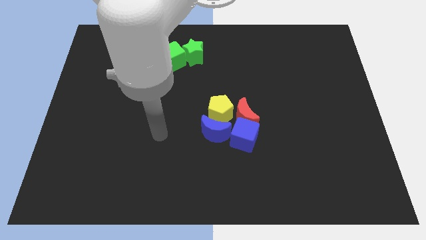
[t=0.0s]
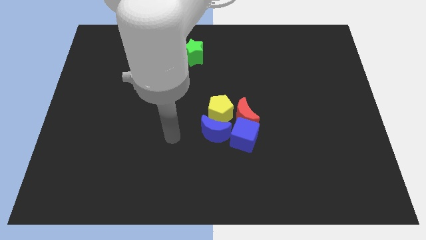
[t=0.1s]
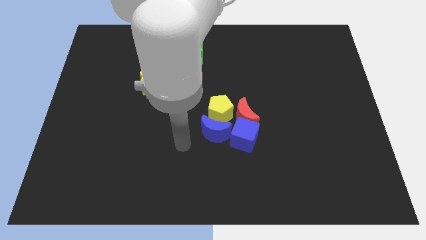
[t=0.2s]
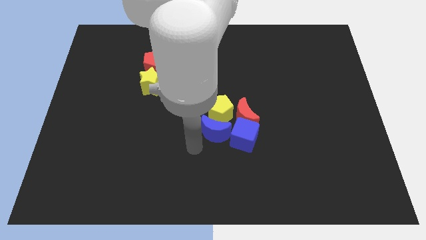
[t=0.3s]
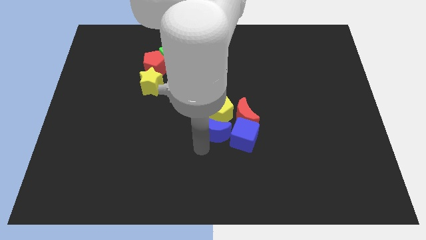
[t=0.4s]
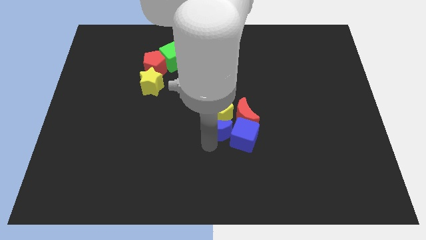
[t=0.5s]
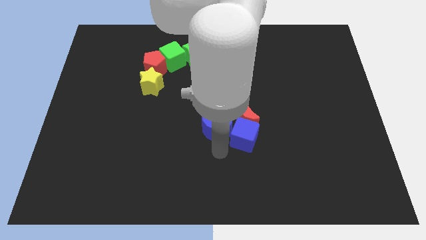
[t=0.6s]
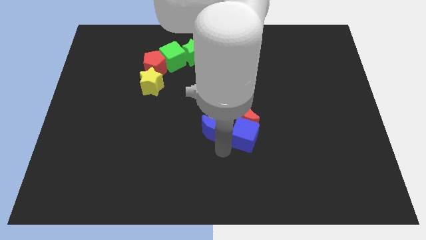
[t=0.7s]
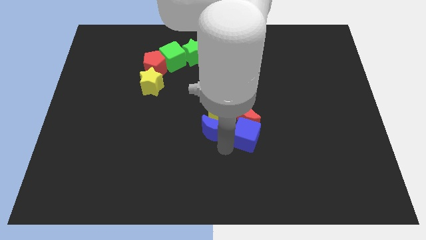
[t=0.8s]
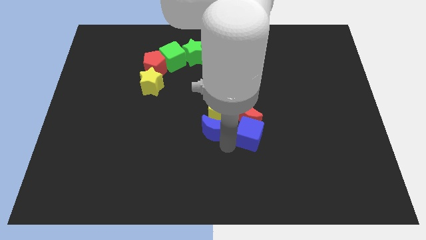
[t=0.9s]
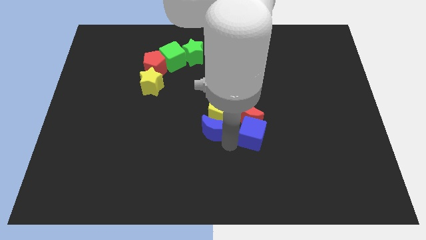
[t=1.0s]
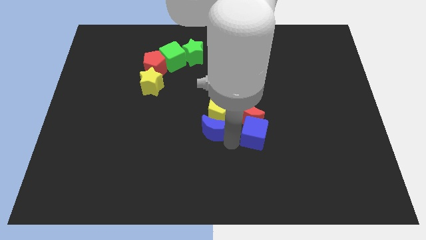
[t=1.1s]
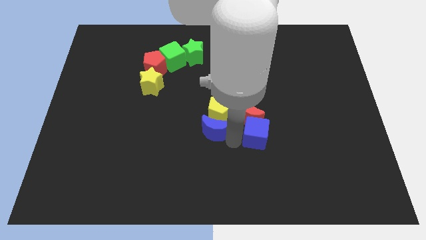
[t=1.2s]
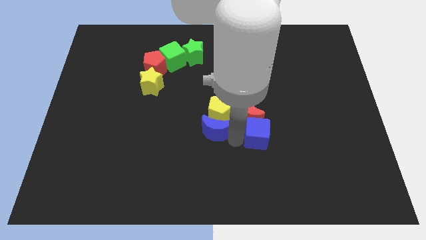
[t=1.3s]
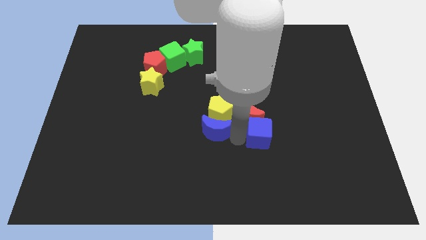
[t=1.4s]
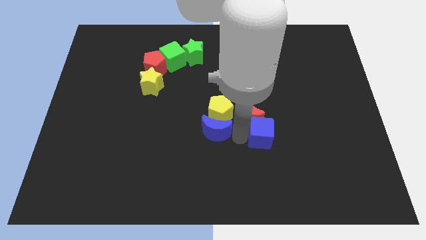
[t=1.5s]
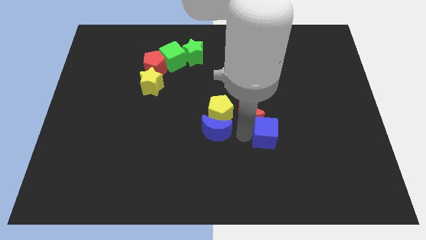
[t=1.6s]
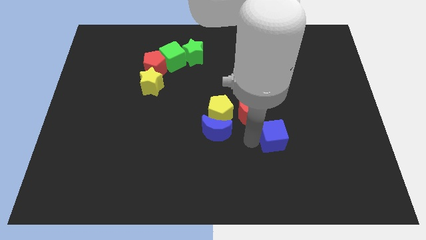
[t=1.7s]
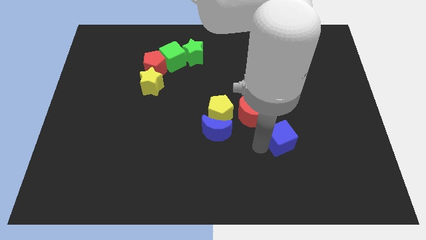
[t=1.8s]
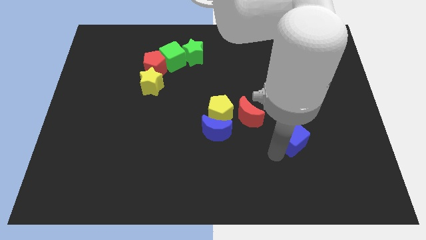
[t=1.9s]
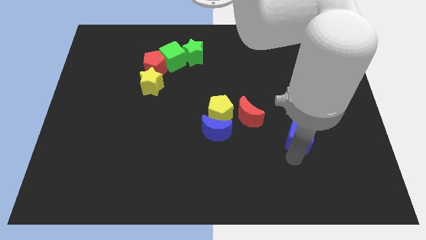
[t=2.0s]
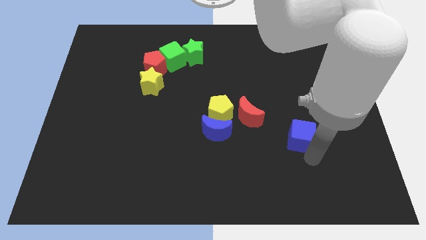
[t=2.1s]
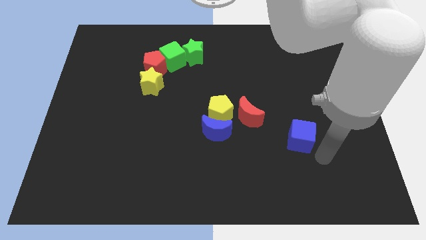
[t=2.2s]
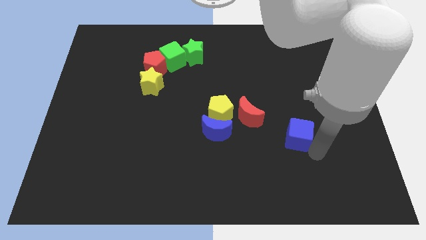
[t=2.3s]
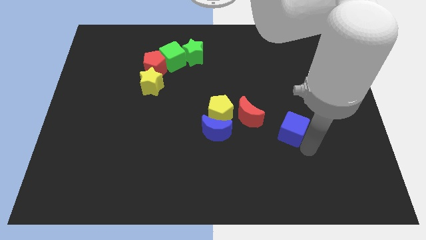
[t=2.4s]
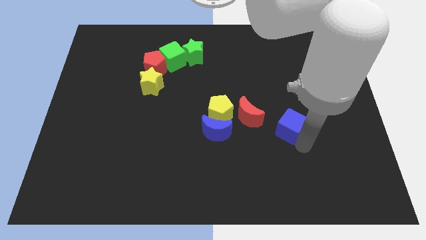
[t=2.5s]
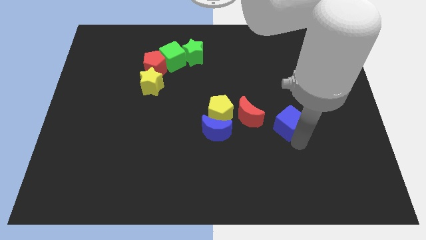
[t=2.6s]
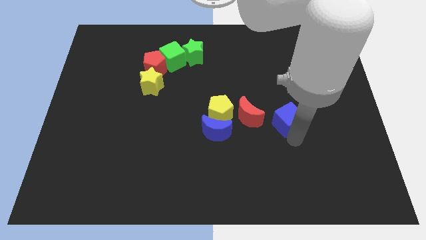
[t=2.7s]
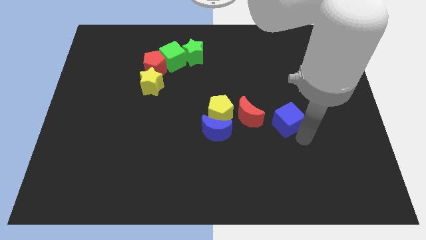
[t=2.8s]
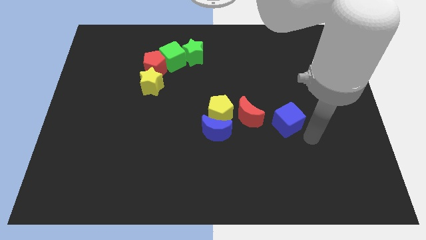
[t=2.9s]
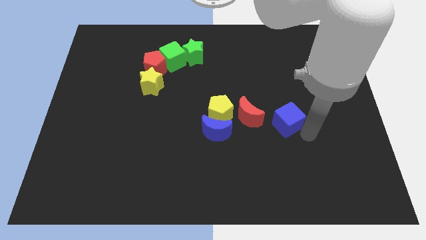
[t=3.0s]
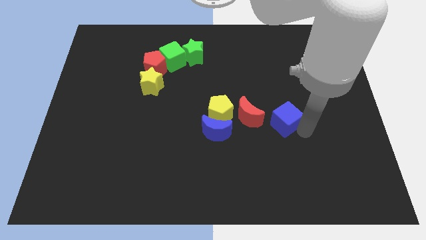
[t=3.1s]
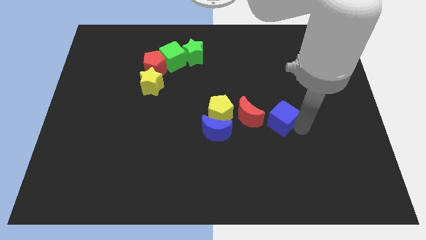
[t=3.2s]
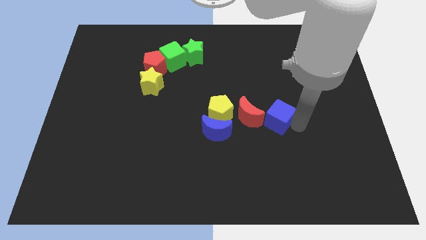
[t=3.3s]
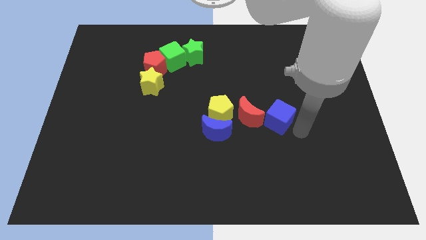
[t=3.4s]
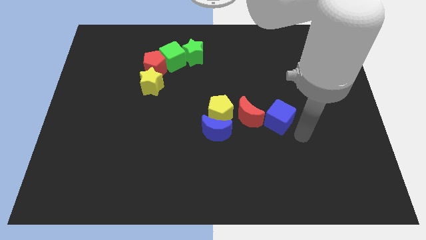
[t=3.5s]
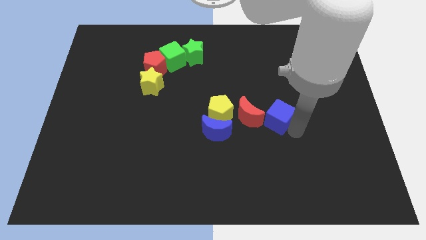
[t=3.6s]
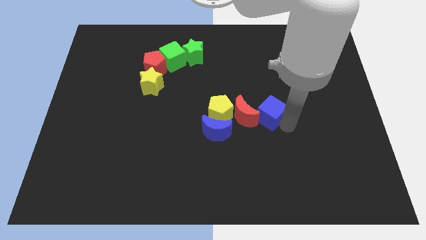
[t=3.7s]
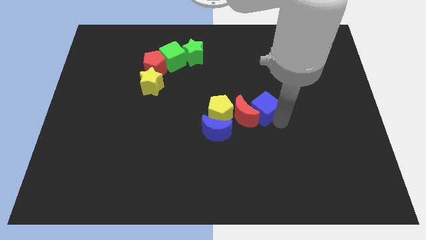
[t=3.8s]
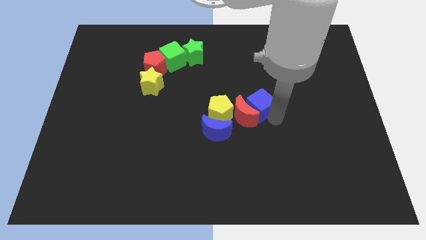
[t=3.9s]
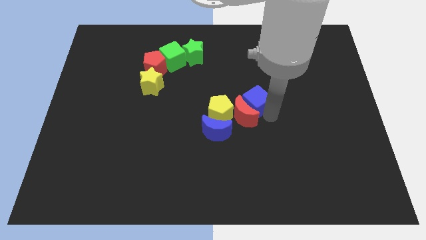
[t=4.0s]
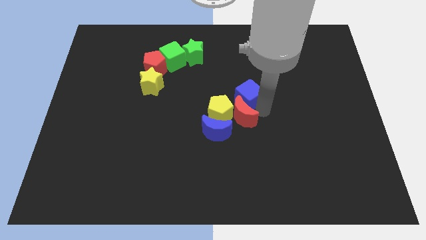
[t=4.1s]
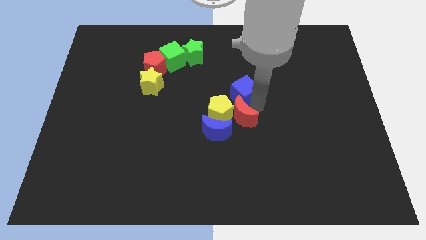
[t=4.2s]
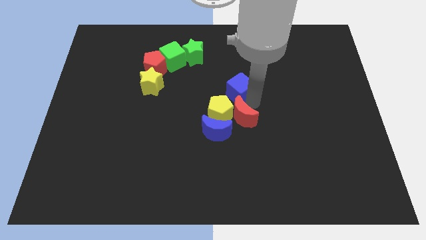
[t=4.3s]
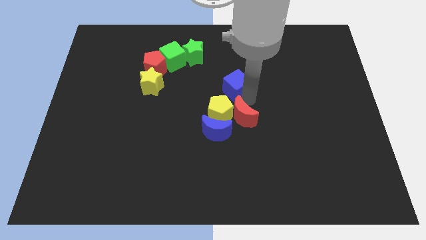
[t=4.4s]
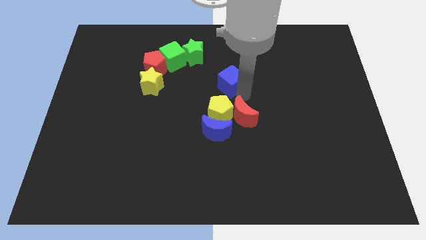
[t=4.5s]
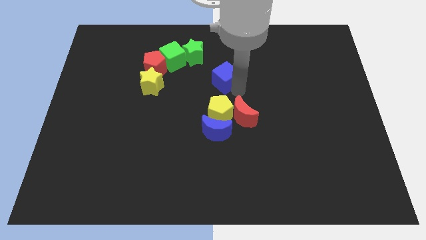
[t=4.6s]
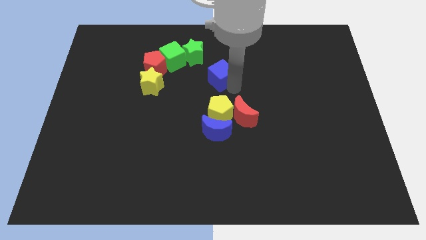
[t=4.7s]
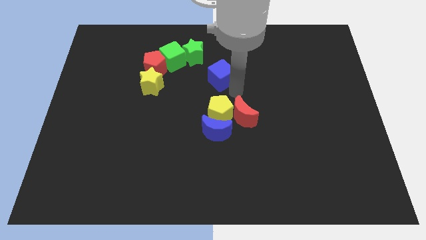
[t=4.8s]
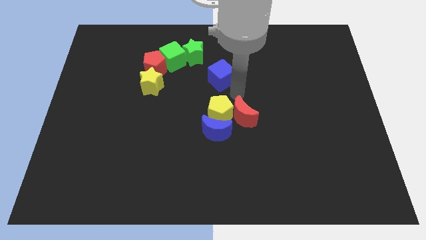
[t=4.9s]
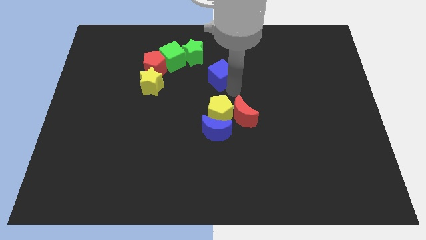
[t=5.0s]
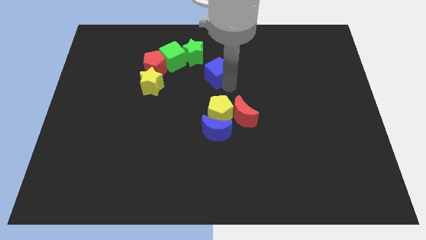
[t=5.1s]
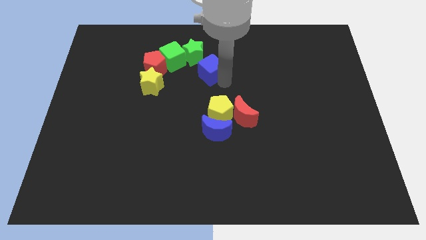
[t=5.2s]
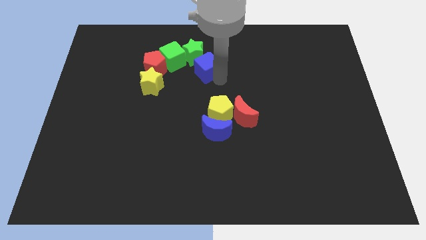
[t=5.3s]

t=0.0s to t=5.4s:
push the blue cube close to the green star

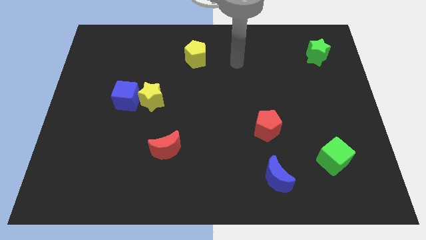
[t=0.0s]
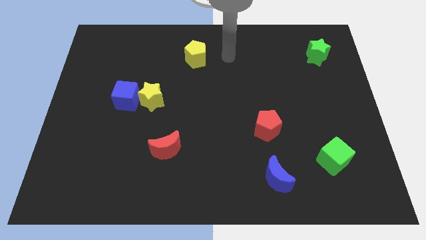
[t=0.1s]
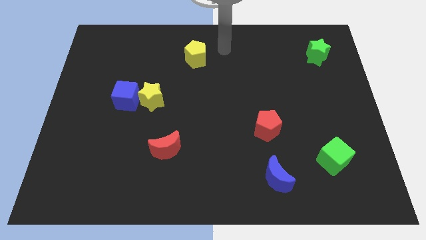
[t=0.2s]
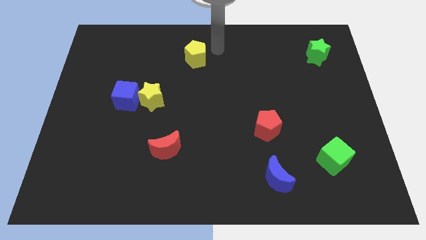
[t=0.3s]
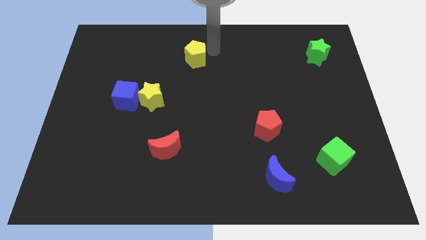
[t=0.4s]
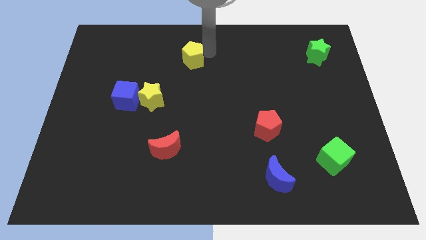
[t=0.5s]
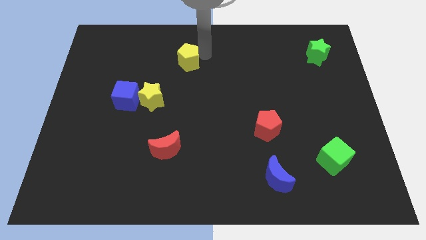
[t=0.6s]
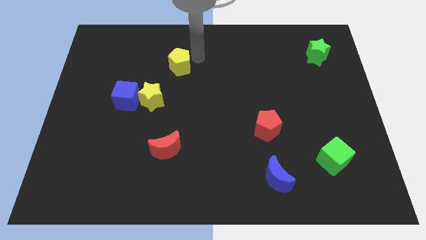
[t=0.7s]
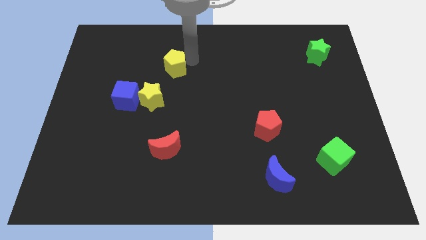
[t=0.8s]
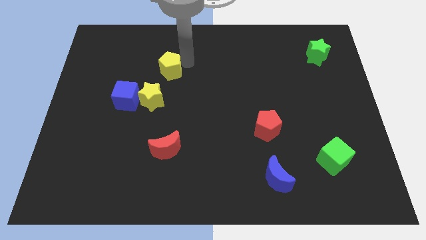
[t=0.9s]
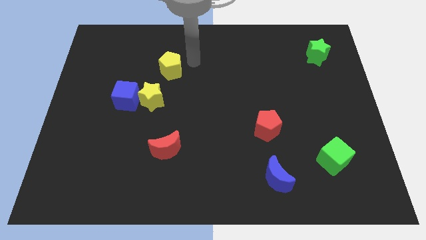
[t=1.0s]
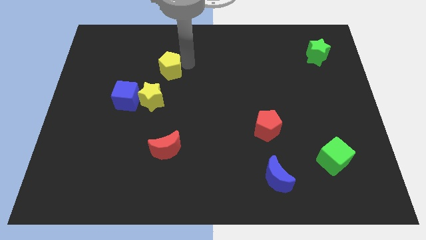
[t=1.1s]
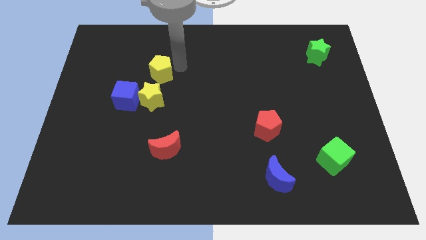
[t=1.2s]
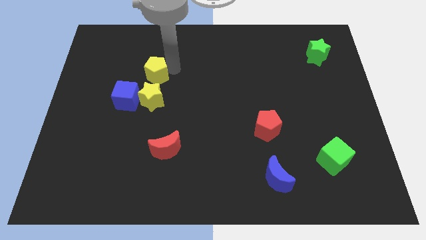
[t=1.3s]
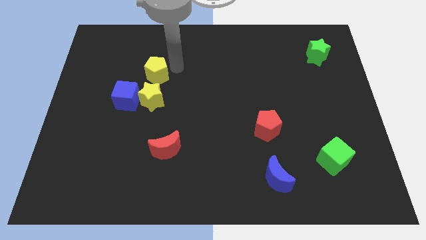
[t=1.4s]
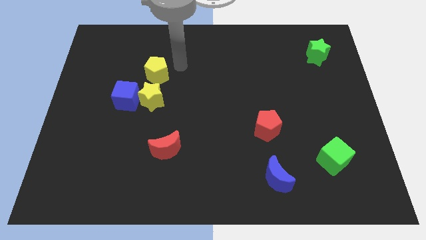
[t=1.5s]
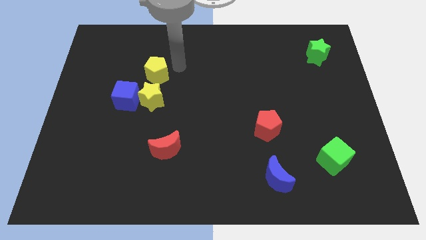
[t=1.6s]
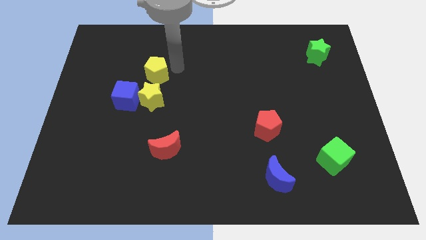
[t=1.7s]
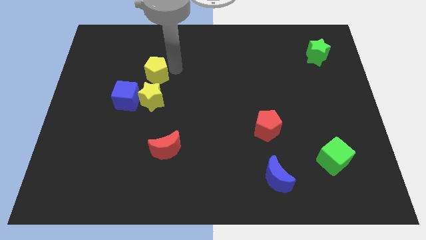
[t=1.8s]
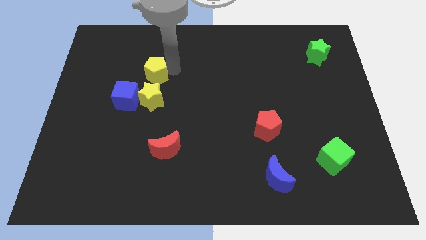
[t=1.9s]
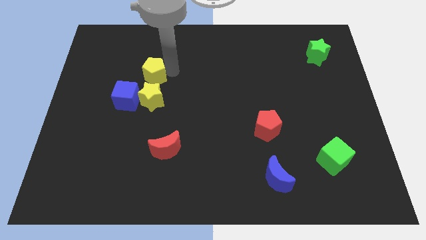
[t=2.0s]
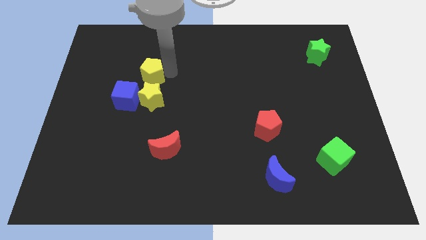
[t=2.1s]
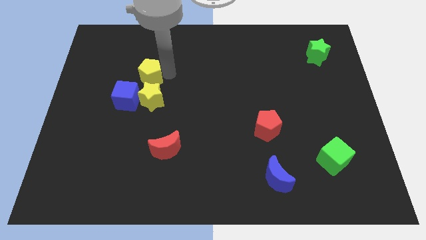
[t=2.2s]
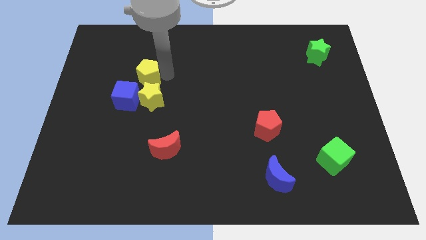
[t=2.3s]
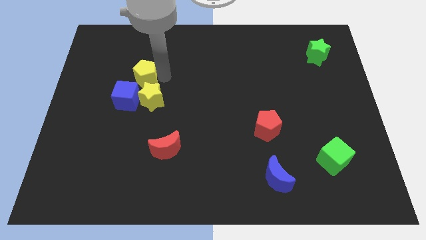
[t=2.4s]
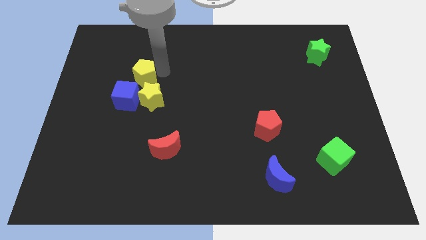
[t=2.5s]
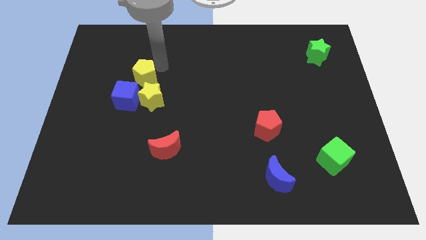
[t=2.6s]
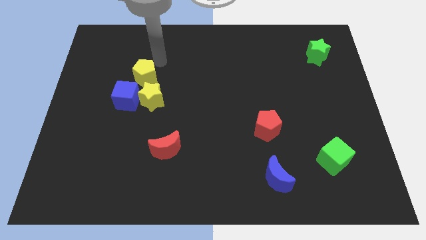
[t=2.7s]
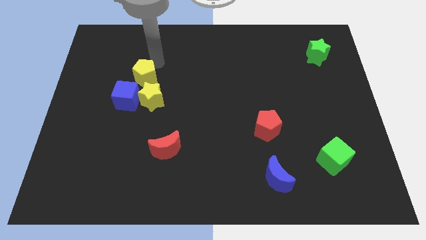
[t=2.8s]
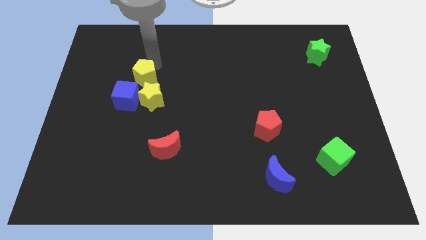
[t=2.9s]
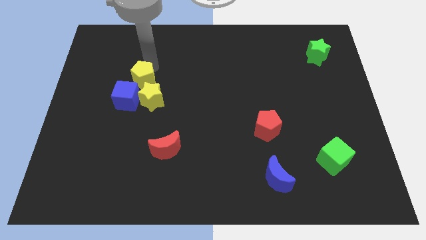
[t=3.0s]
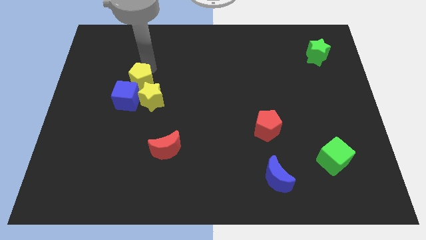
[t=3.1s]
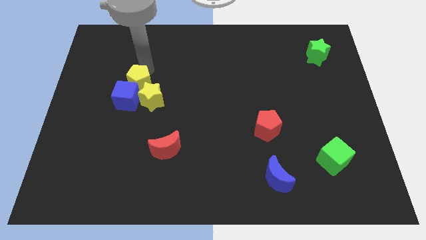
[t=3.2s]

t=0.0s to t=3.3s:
push the yellow pentagon next to the blue cube
